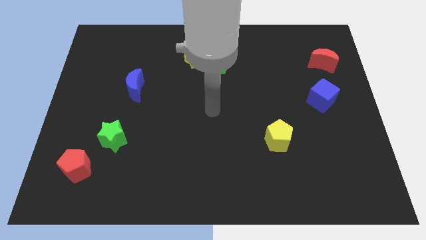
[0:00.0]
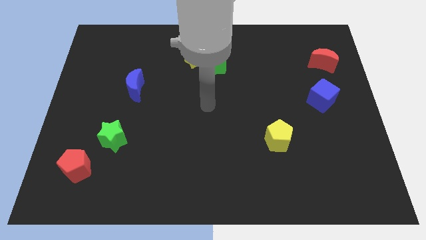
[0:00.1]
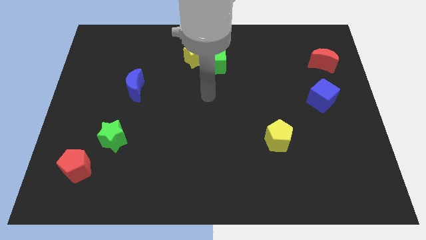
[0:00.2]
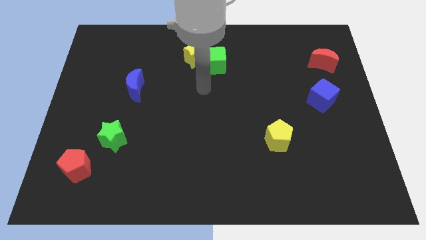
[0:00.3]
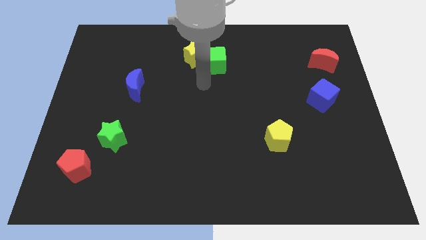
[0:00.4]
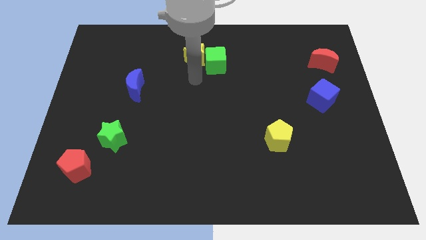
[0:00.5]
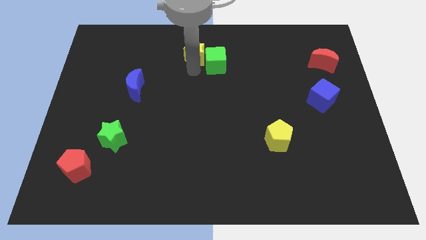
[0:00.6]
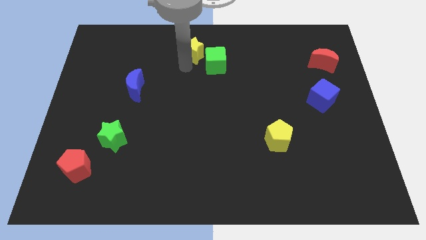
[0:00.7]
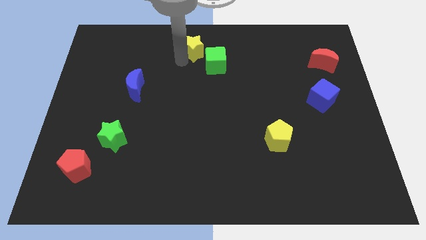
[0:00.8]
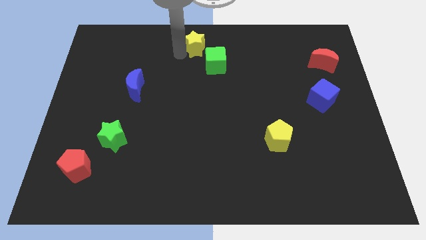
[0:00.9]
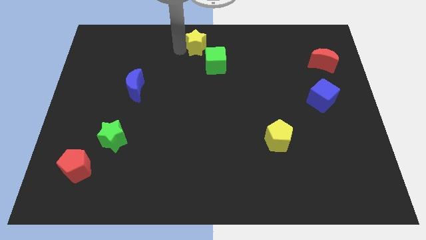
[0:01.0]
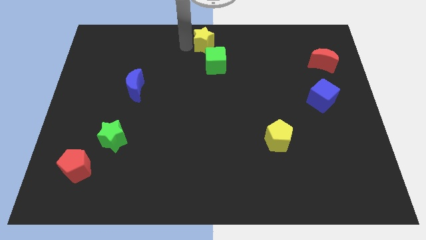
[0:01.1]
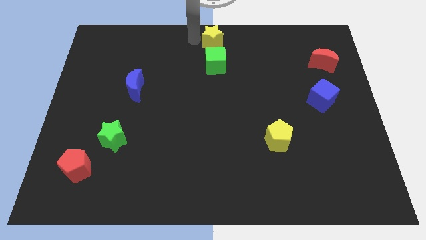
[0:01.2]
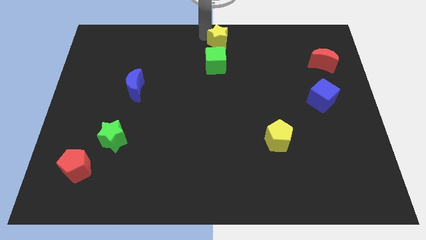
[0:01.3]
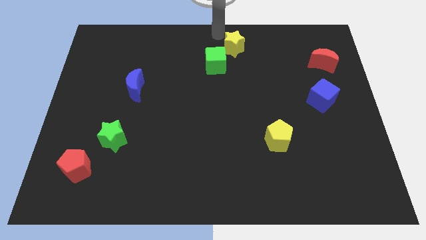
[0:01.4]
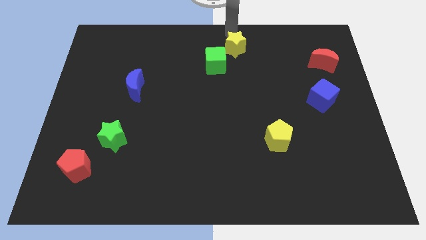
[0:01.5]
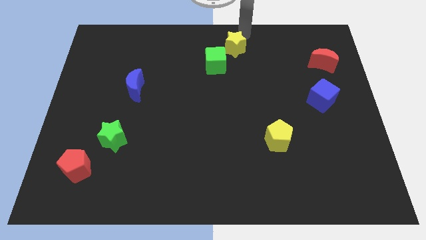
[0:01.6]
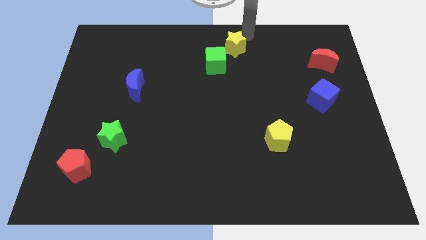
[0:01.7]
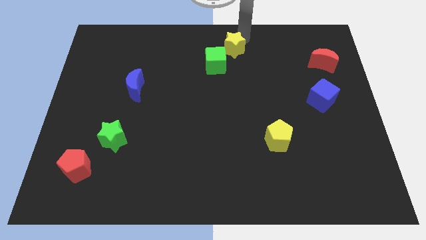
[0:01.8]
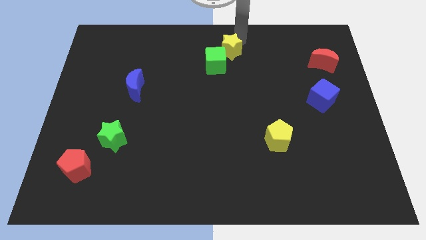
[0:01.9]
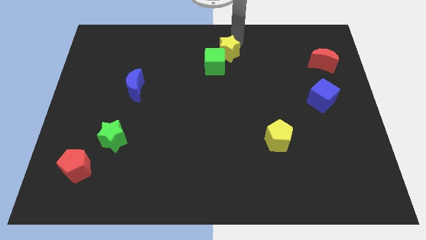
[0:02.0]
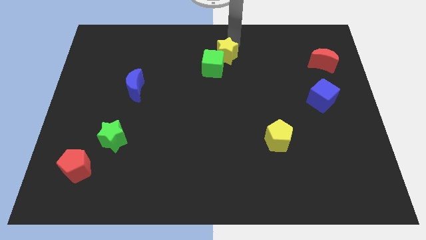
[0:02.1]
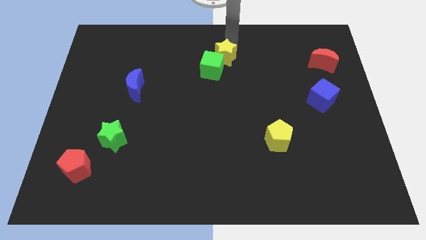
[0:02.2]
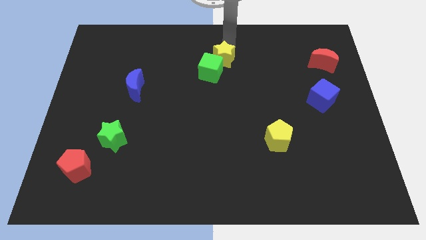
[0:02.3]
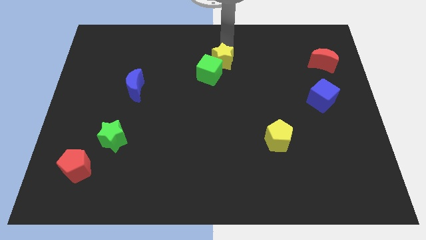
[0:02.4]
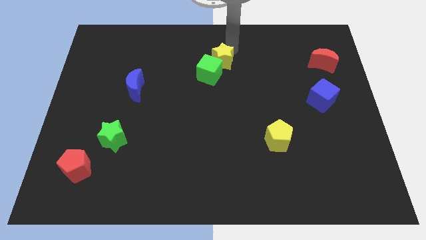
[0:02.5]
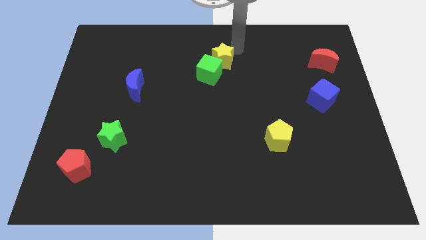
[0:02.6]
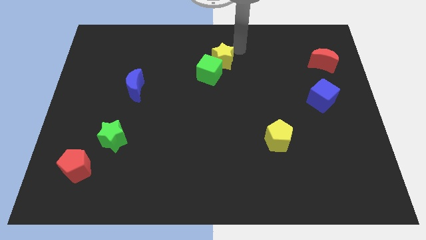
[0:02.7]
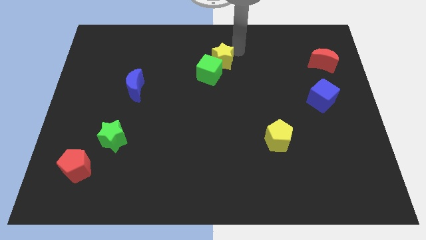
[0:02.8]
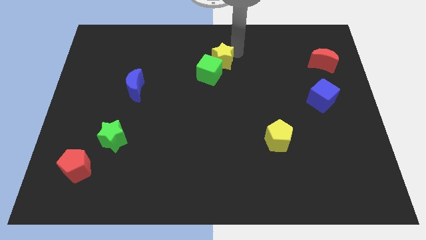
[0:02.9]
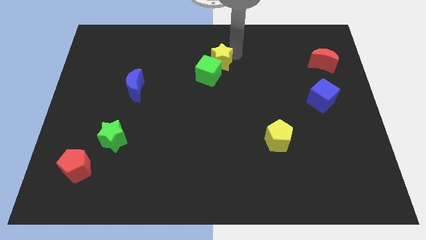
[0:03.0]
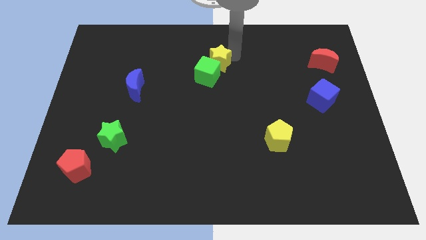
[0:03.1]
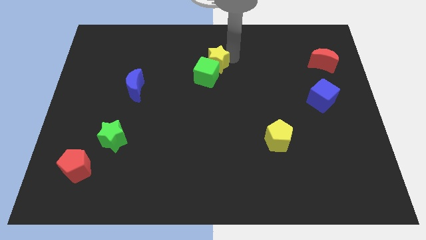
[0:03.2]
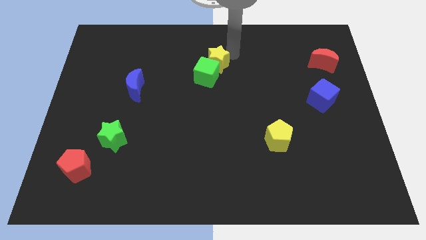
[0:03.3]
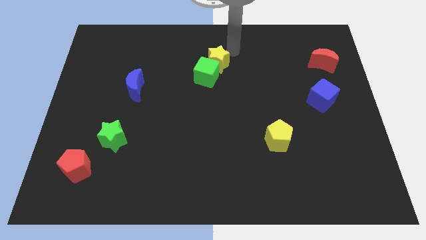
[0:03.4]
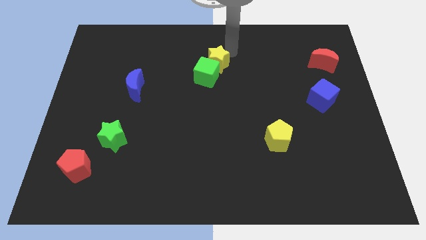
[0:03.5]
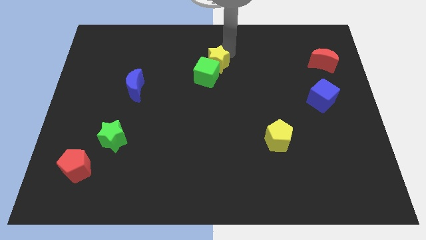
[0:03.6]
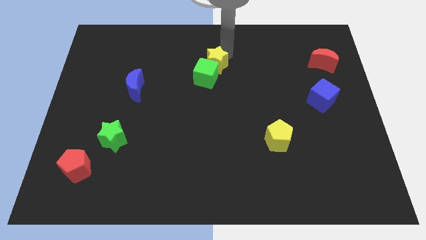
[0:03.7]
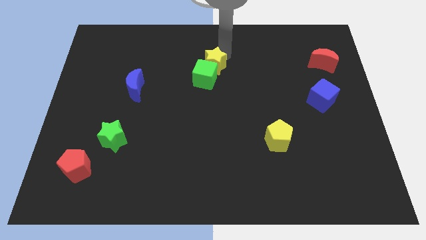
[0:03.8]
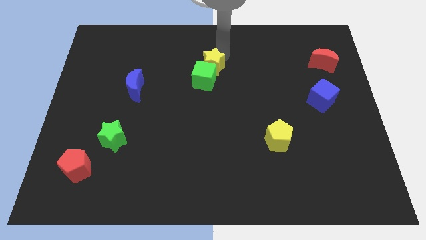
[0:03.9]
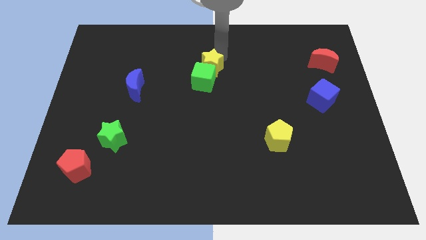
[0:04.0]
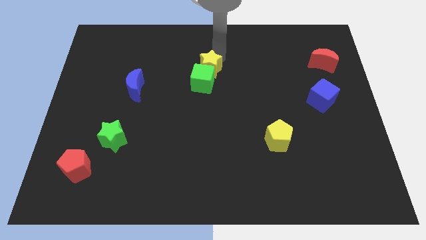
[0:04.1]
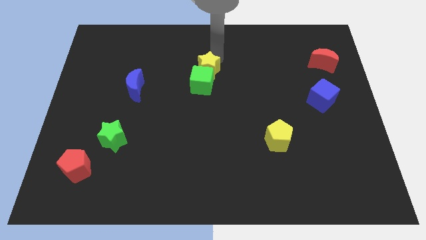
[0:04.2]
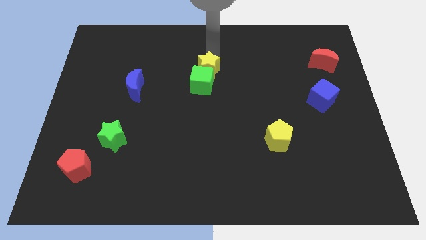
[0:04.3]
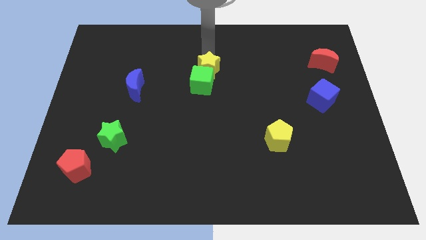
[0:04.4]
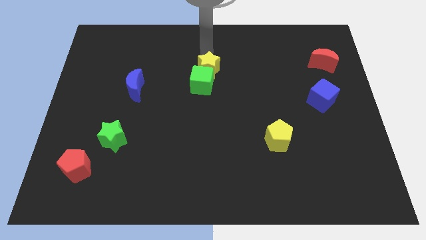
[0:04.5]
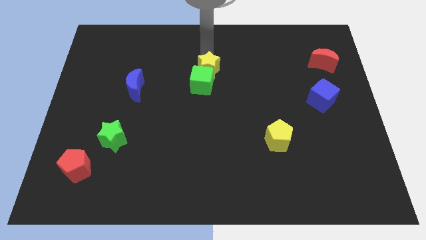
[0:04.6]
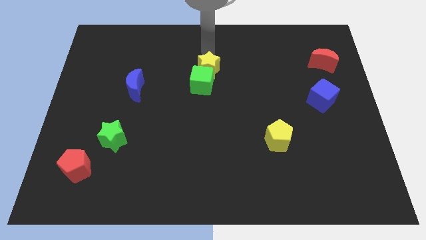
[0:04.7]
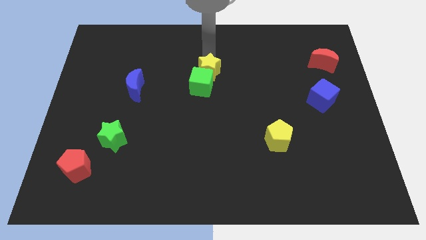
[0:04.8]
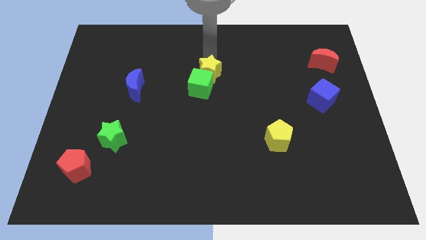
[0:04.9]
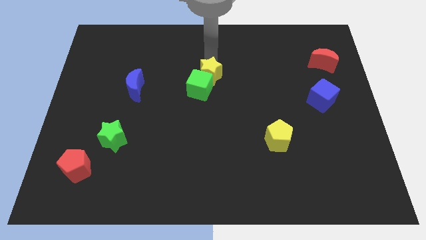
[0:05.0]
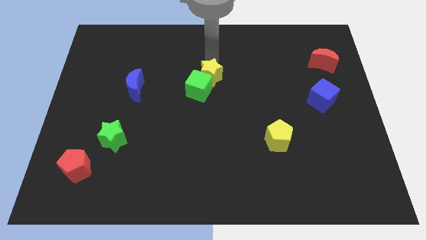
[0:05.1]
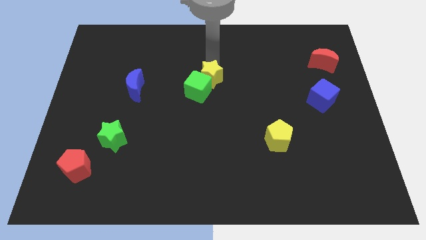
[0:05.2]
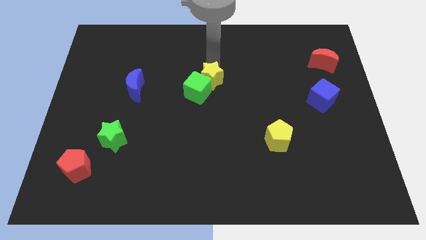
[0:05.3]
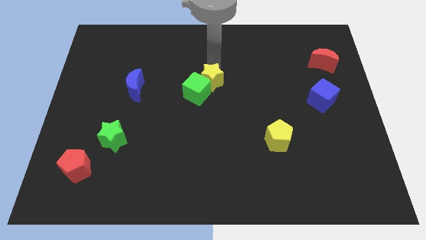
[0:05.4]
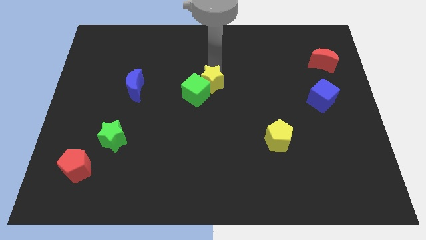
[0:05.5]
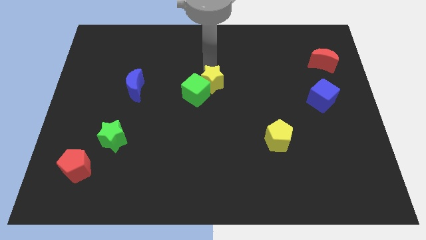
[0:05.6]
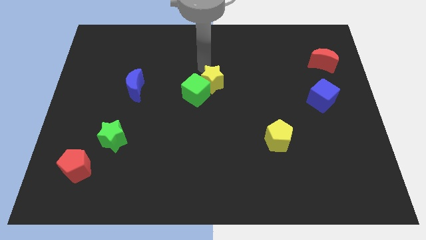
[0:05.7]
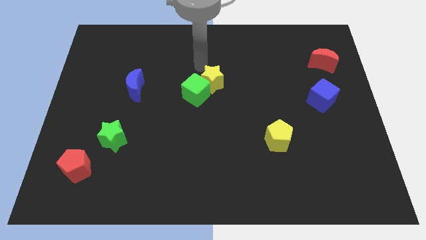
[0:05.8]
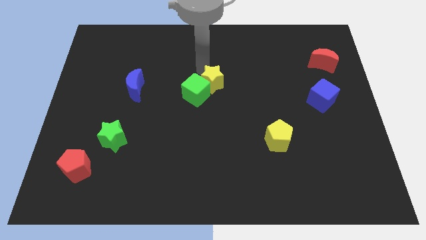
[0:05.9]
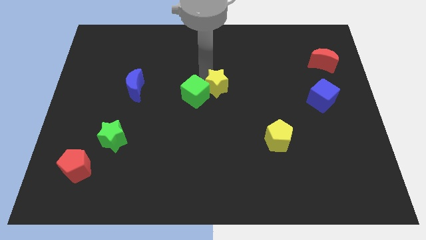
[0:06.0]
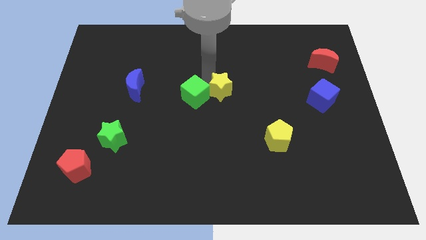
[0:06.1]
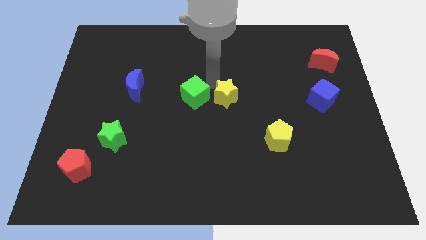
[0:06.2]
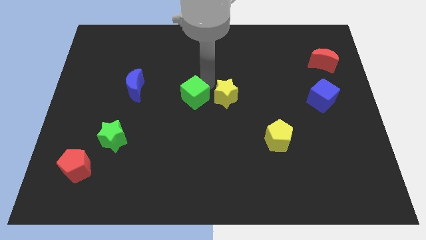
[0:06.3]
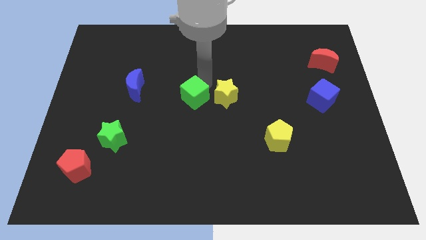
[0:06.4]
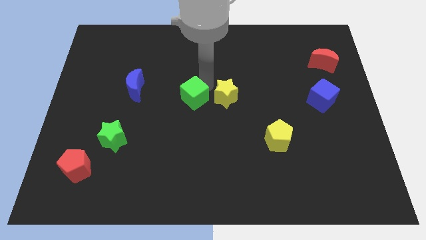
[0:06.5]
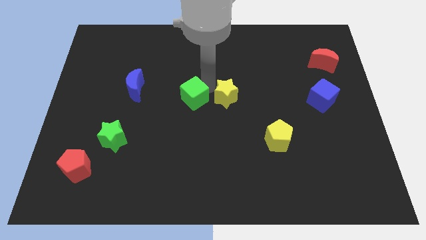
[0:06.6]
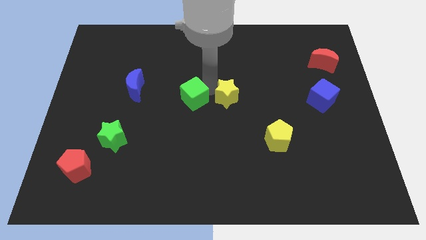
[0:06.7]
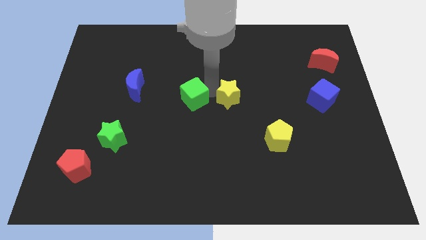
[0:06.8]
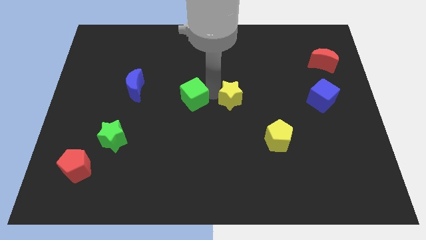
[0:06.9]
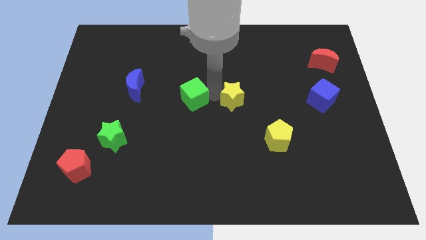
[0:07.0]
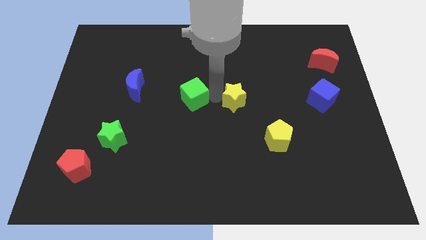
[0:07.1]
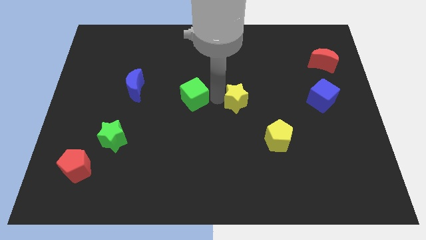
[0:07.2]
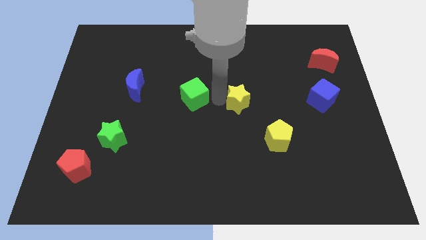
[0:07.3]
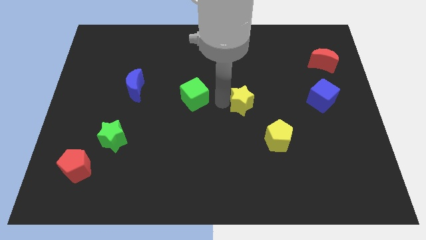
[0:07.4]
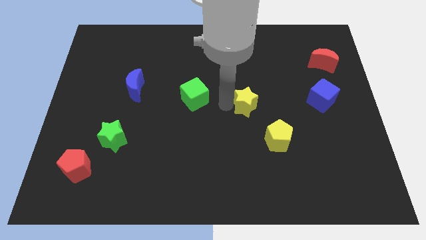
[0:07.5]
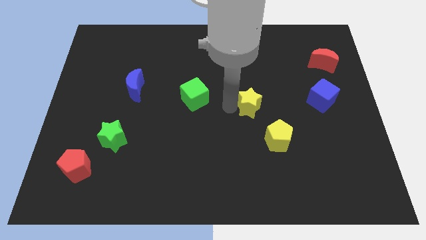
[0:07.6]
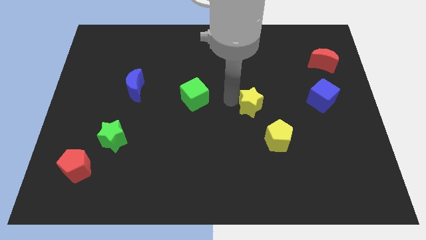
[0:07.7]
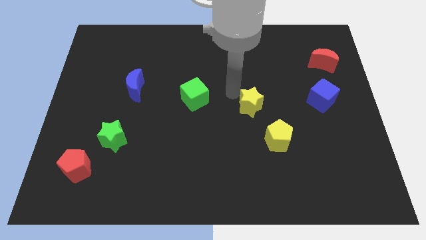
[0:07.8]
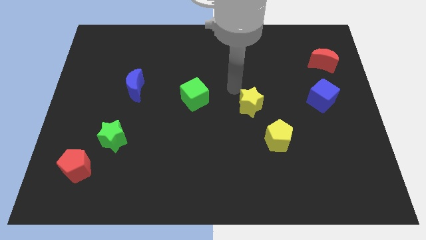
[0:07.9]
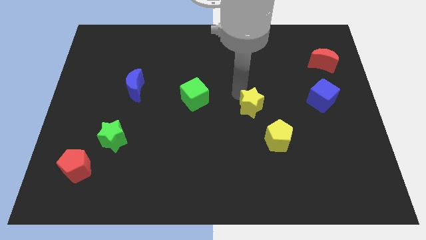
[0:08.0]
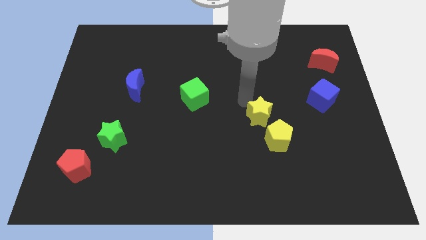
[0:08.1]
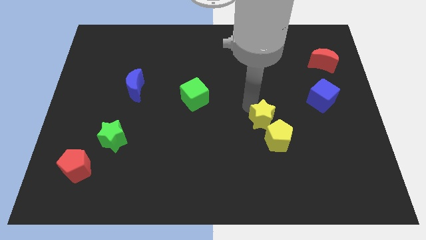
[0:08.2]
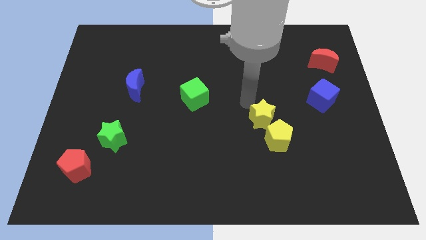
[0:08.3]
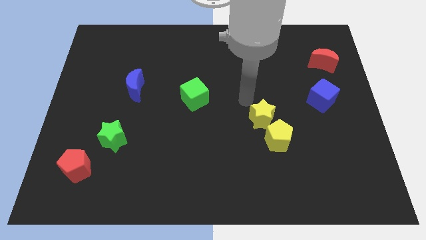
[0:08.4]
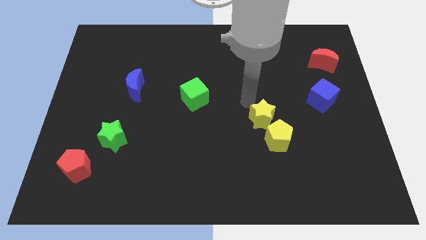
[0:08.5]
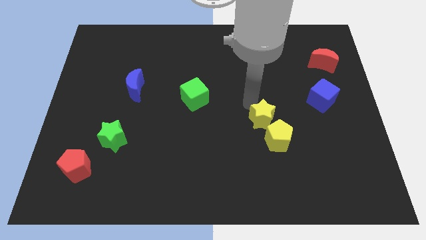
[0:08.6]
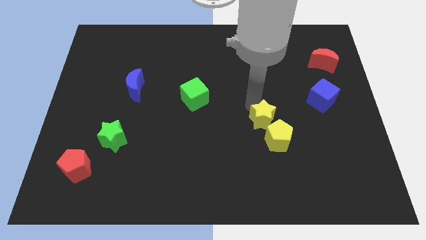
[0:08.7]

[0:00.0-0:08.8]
slide the yellow star next to the yellow pentagon
